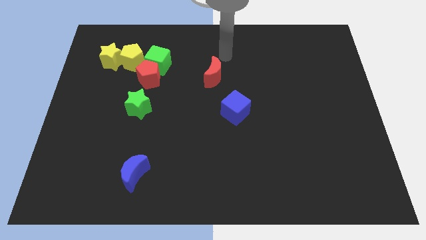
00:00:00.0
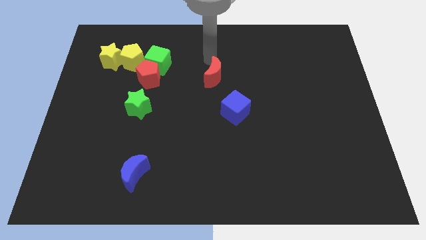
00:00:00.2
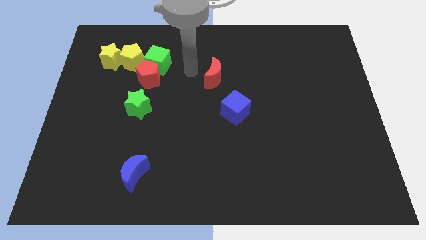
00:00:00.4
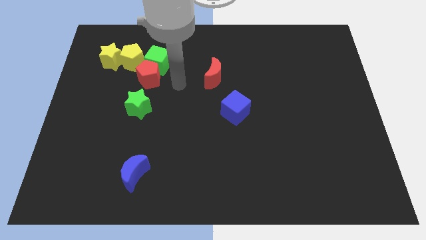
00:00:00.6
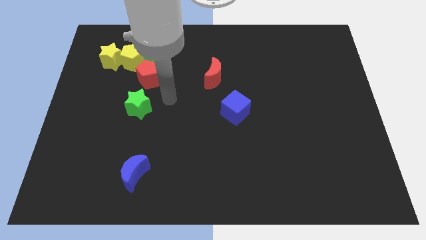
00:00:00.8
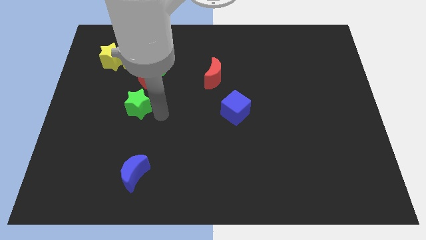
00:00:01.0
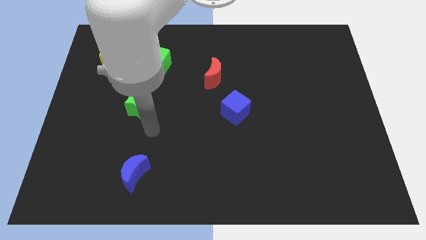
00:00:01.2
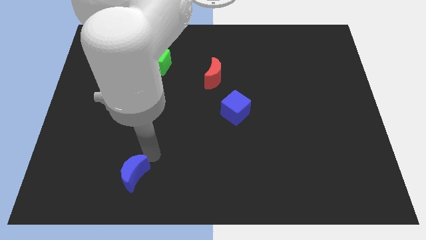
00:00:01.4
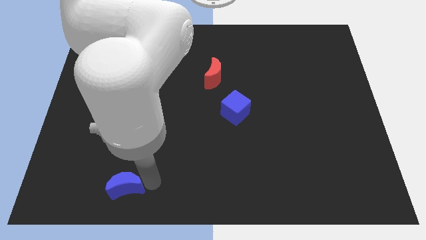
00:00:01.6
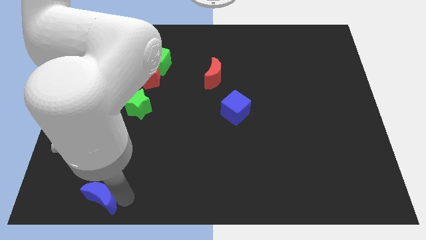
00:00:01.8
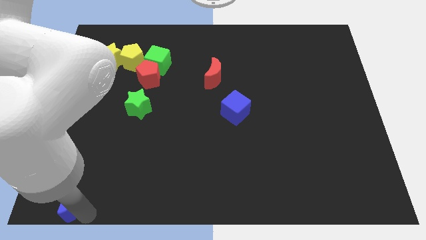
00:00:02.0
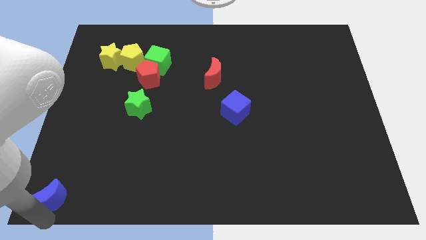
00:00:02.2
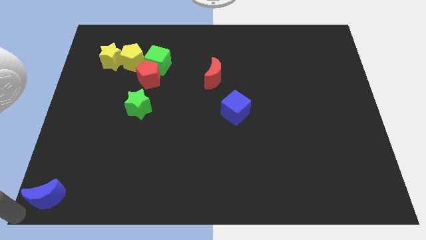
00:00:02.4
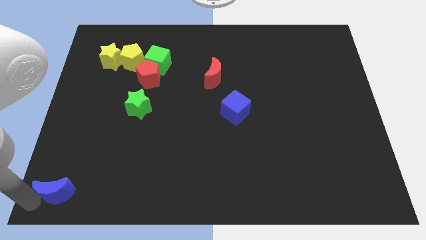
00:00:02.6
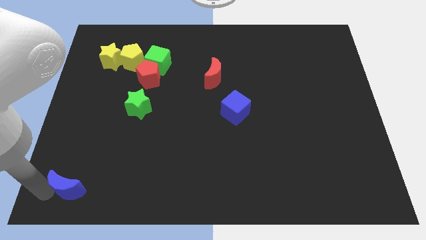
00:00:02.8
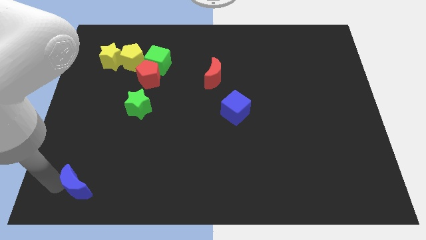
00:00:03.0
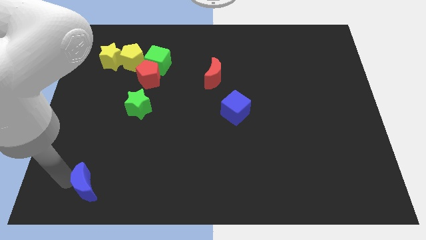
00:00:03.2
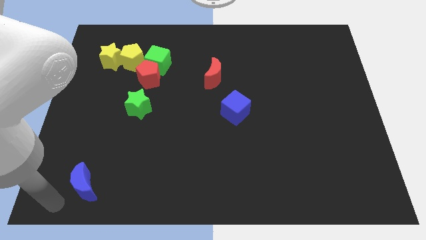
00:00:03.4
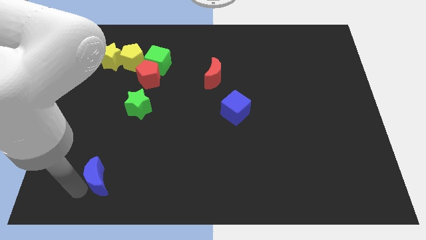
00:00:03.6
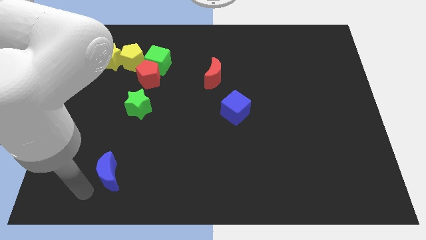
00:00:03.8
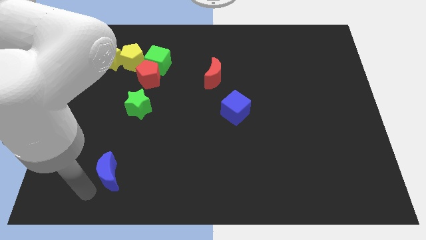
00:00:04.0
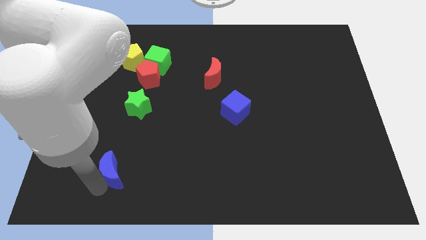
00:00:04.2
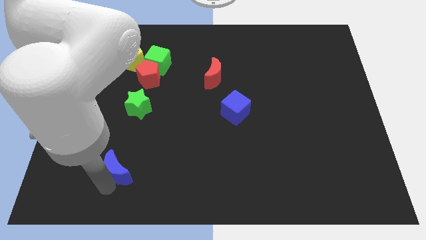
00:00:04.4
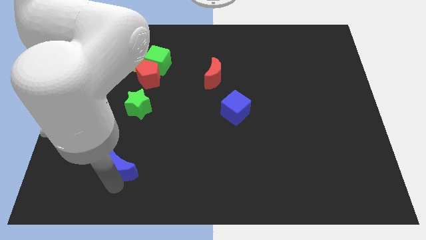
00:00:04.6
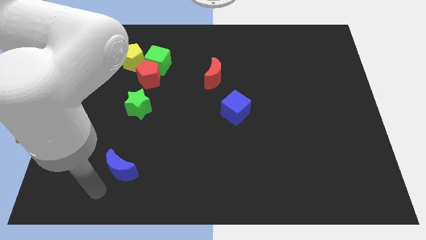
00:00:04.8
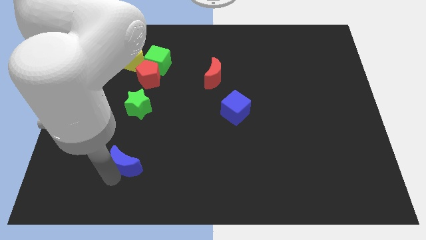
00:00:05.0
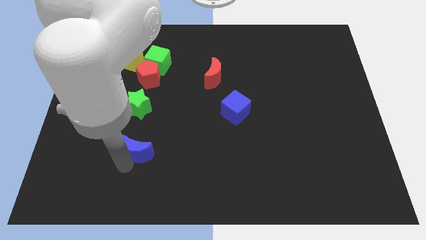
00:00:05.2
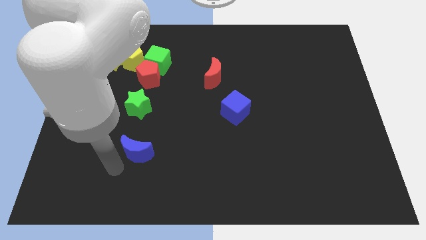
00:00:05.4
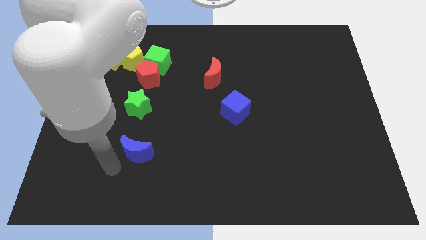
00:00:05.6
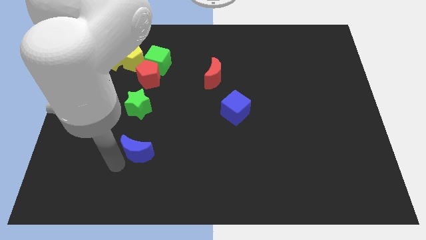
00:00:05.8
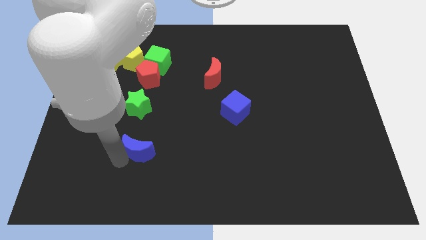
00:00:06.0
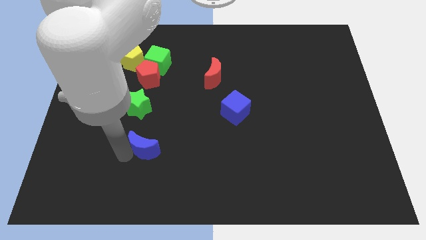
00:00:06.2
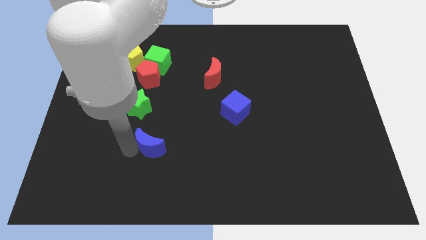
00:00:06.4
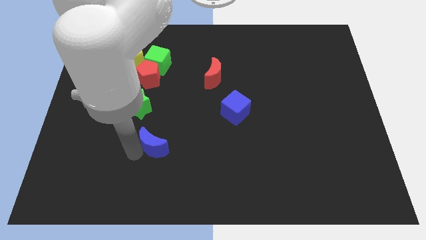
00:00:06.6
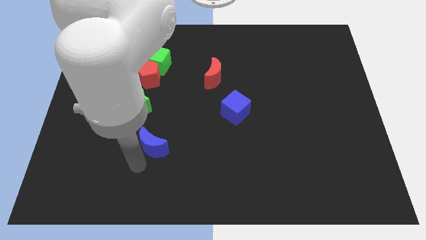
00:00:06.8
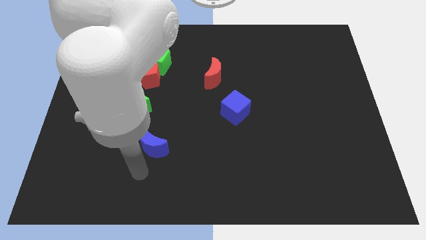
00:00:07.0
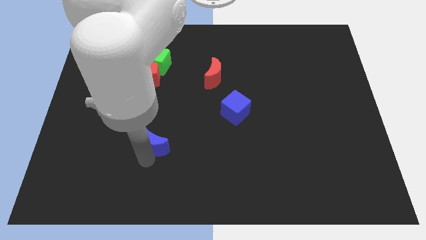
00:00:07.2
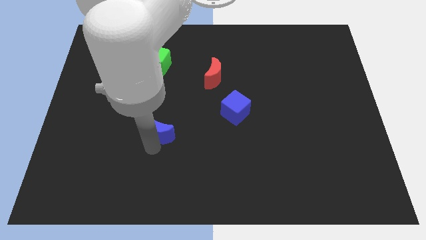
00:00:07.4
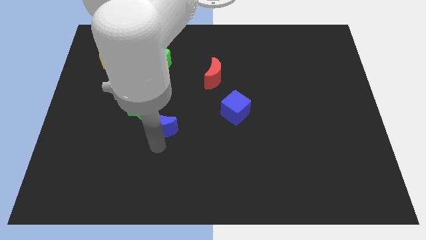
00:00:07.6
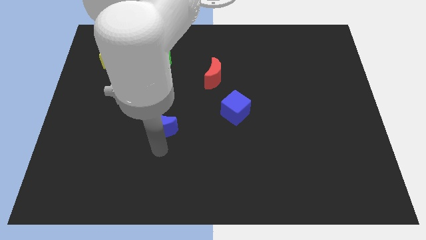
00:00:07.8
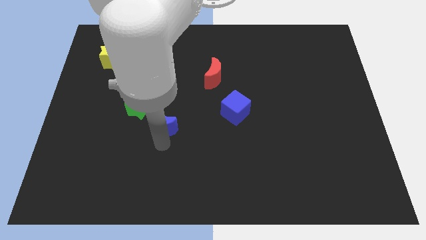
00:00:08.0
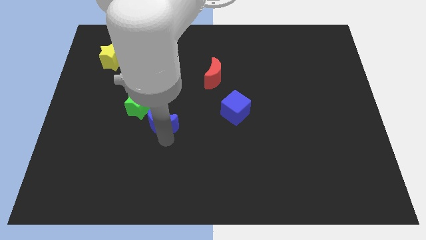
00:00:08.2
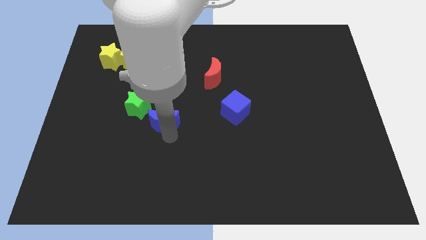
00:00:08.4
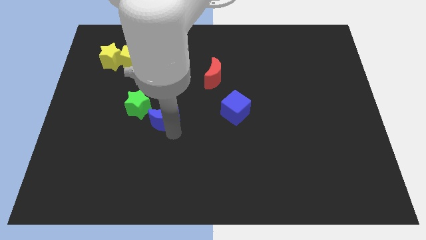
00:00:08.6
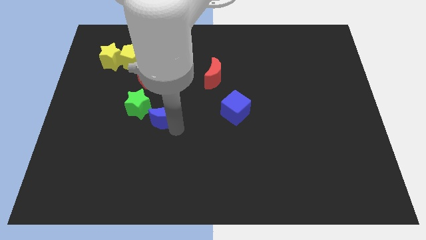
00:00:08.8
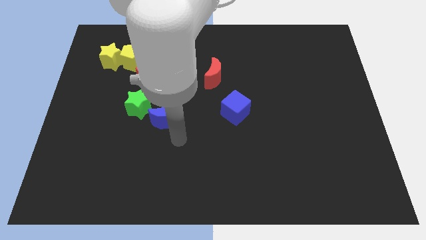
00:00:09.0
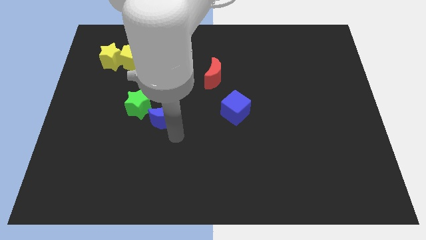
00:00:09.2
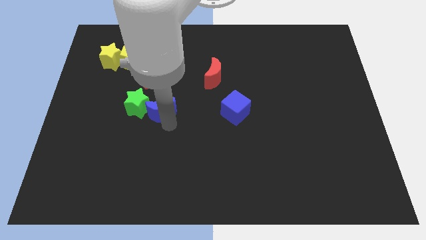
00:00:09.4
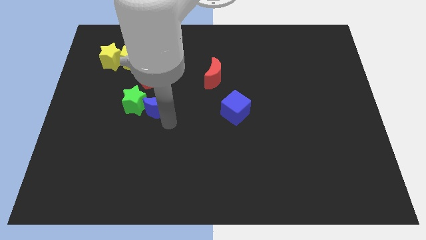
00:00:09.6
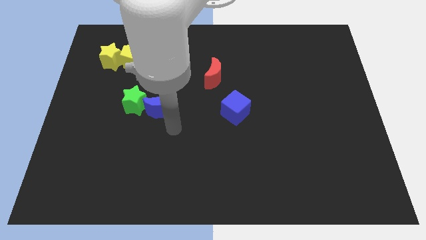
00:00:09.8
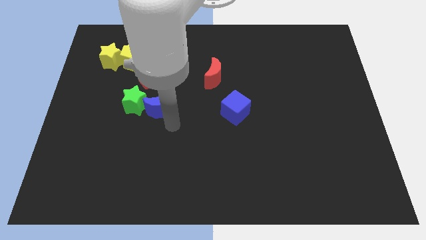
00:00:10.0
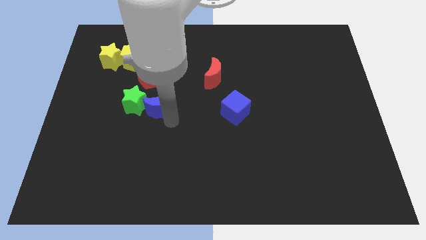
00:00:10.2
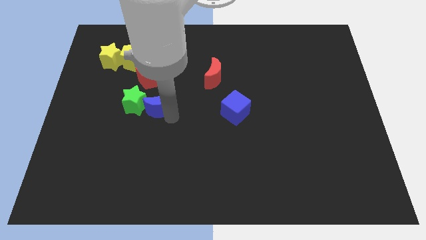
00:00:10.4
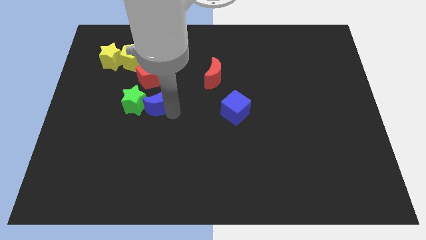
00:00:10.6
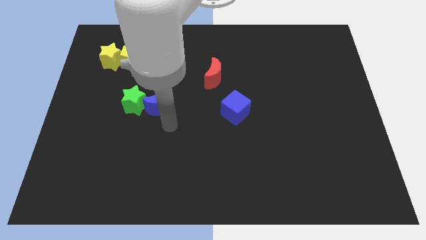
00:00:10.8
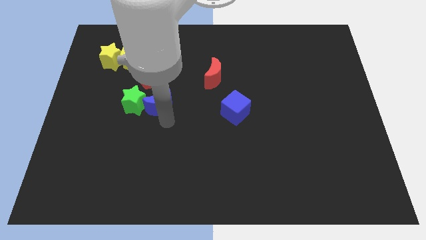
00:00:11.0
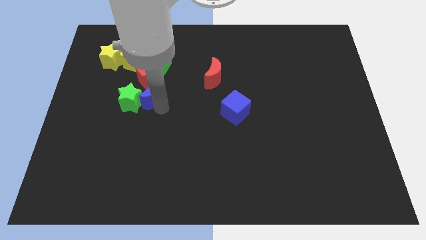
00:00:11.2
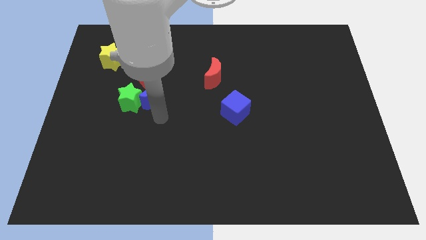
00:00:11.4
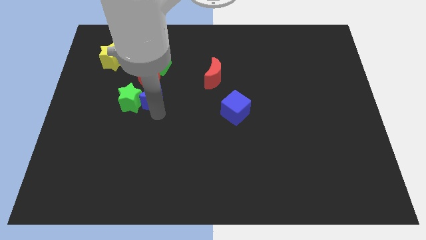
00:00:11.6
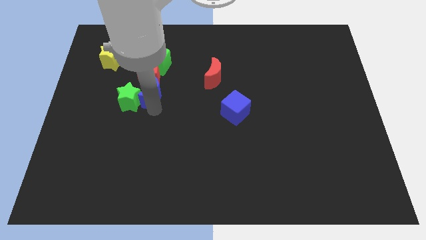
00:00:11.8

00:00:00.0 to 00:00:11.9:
push the blue moon to the red pentagon

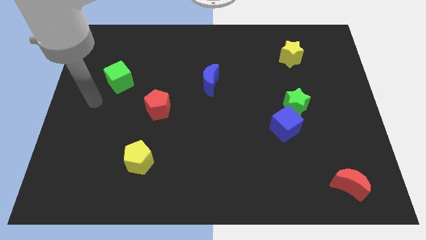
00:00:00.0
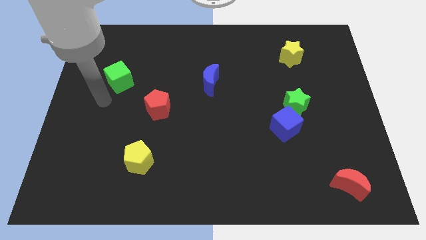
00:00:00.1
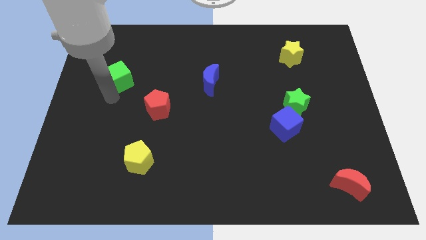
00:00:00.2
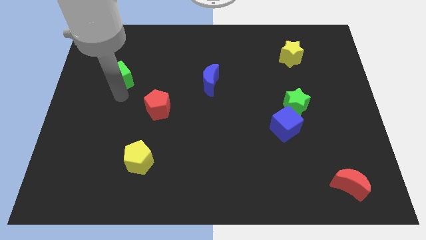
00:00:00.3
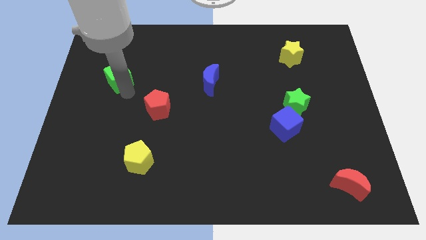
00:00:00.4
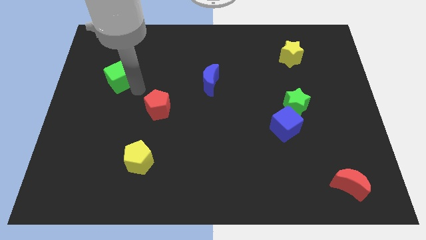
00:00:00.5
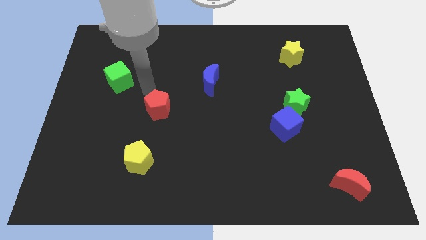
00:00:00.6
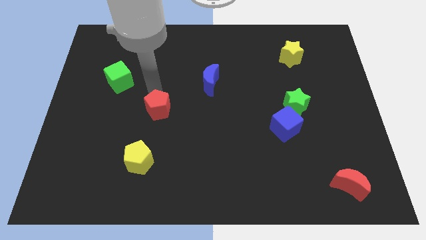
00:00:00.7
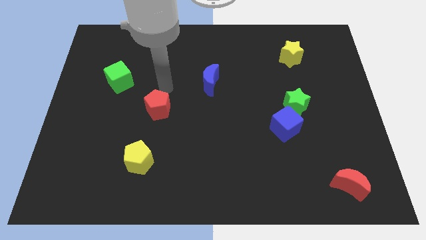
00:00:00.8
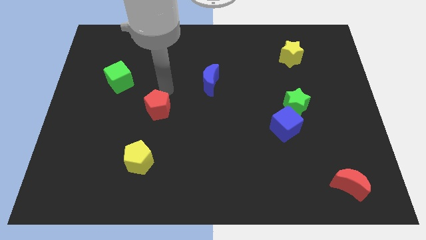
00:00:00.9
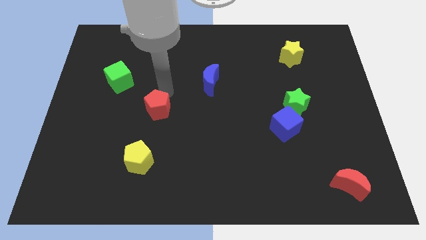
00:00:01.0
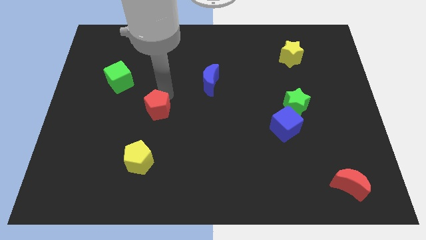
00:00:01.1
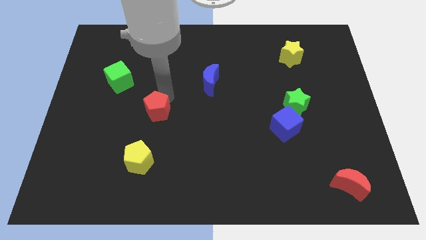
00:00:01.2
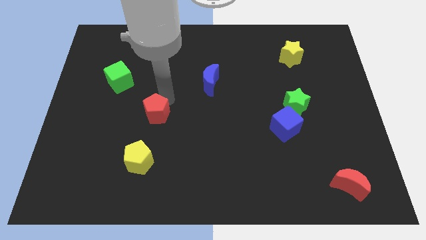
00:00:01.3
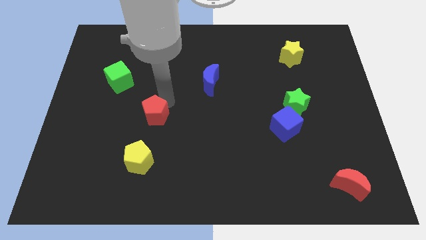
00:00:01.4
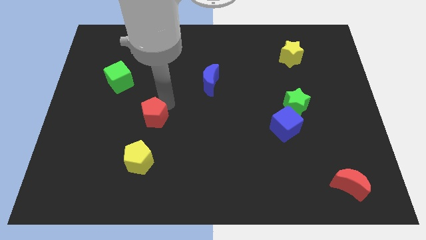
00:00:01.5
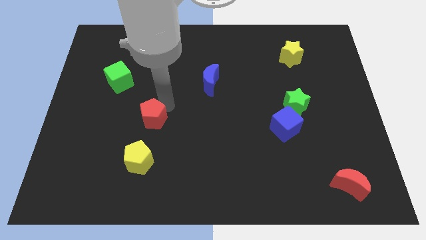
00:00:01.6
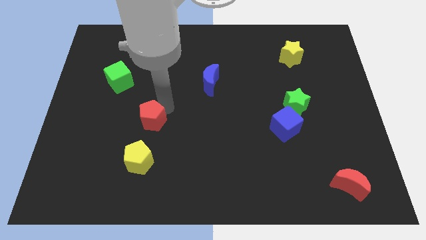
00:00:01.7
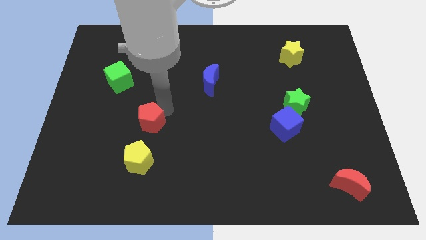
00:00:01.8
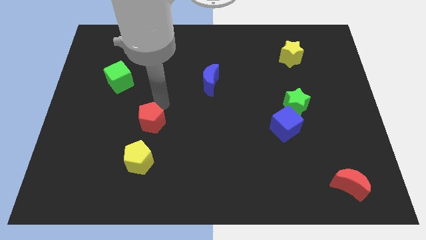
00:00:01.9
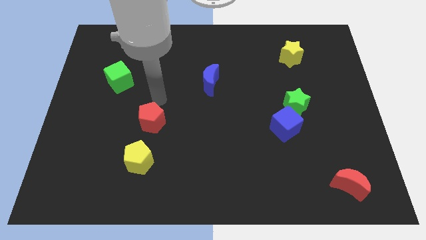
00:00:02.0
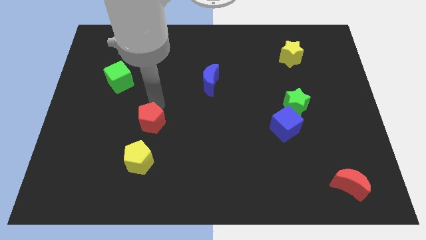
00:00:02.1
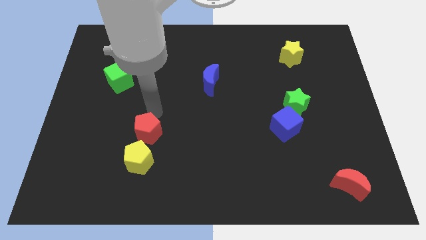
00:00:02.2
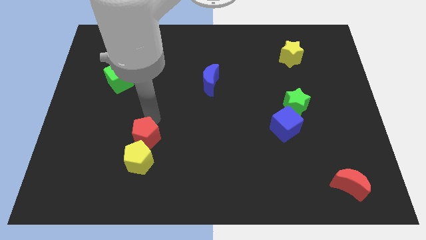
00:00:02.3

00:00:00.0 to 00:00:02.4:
push the red pentagon close to the yellow pentagon
